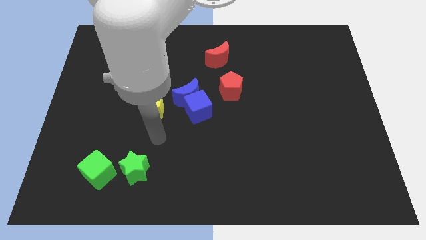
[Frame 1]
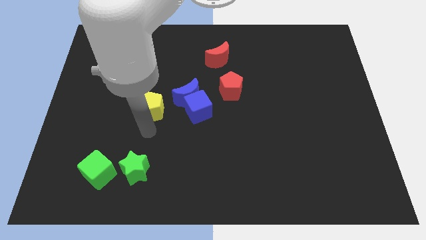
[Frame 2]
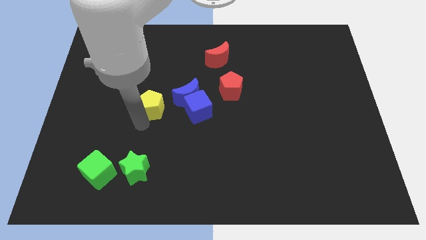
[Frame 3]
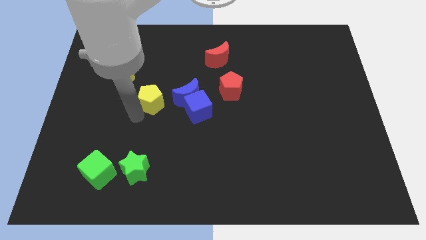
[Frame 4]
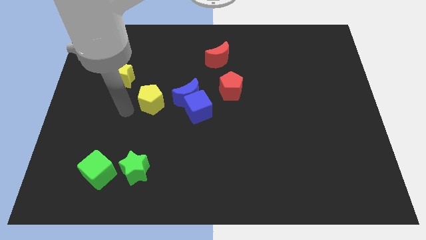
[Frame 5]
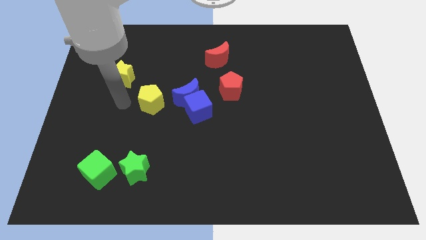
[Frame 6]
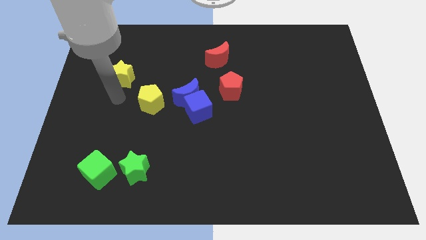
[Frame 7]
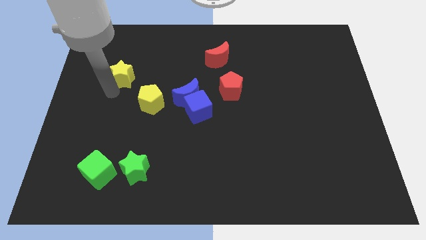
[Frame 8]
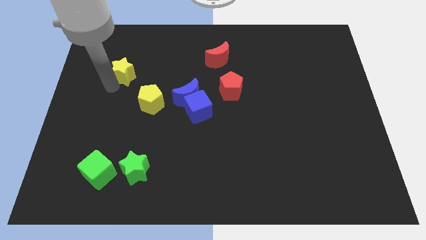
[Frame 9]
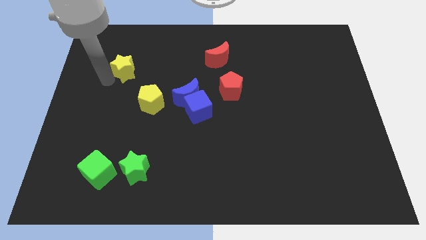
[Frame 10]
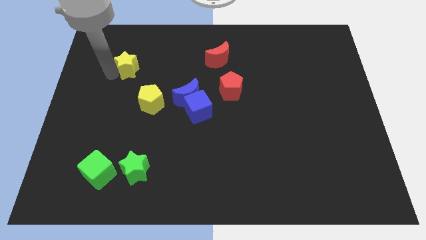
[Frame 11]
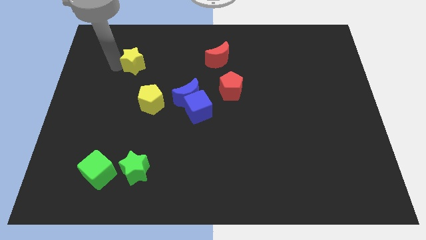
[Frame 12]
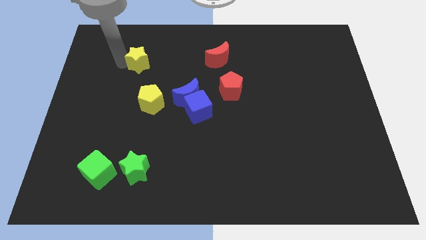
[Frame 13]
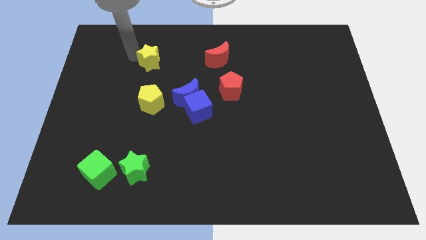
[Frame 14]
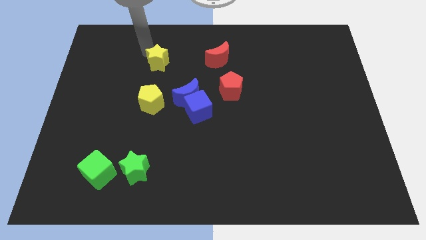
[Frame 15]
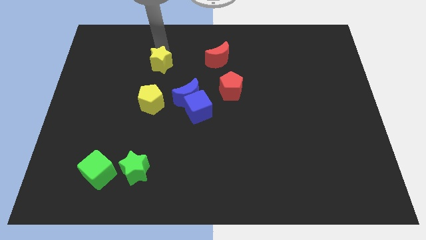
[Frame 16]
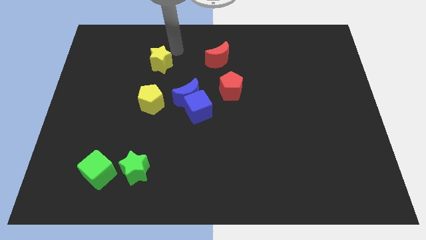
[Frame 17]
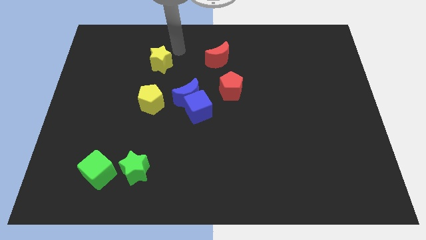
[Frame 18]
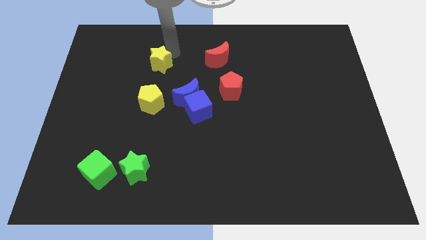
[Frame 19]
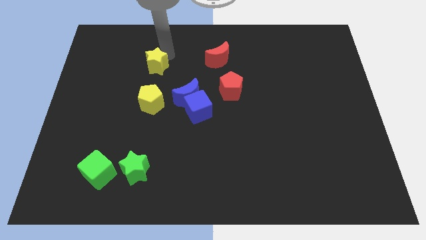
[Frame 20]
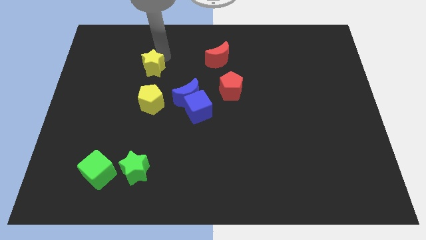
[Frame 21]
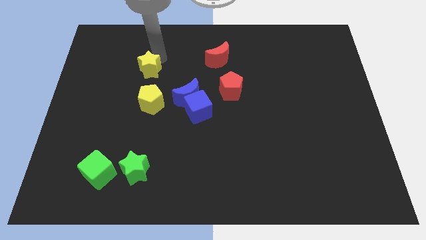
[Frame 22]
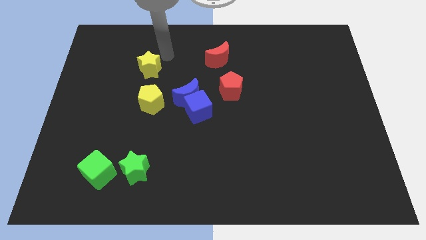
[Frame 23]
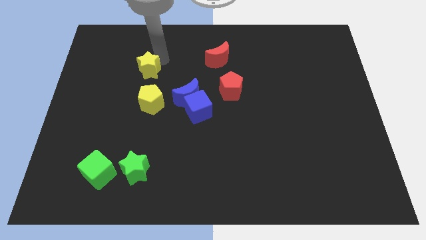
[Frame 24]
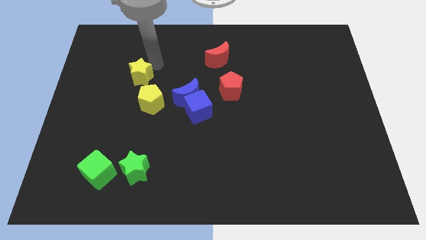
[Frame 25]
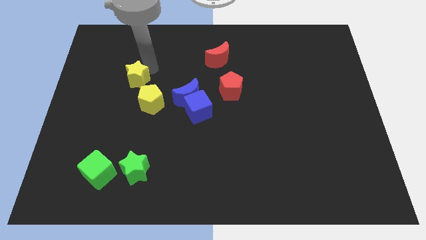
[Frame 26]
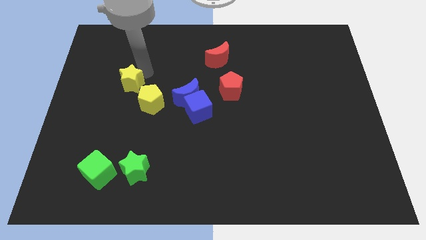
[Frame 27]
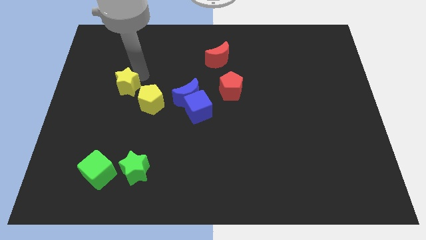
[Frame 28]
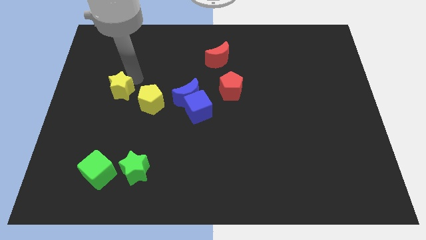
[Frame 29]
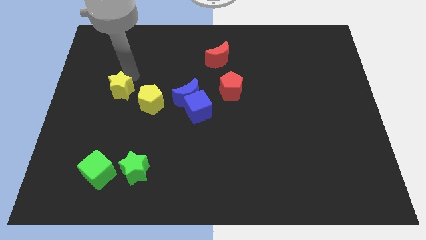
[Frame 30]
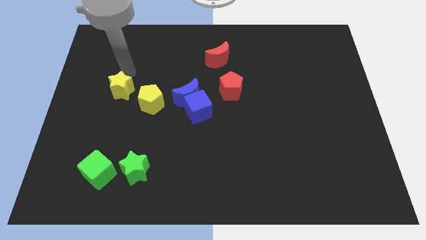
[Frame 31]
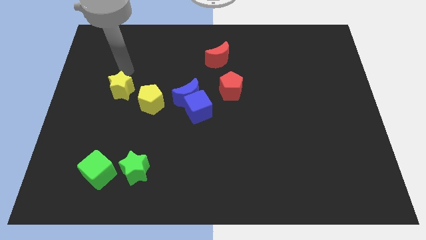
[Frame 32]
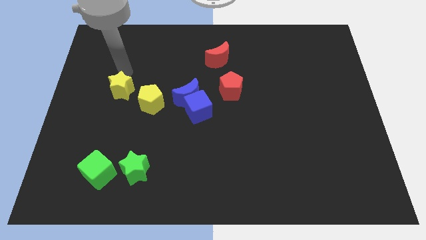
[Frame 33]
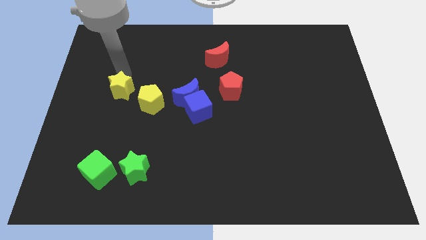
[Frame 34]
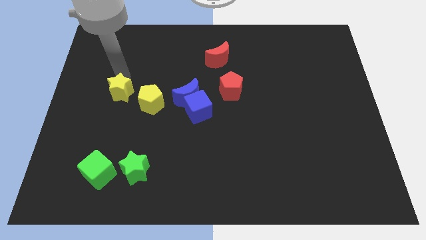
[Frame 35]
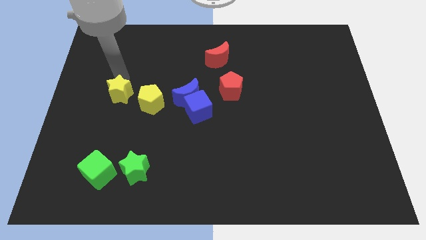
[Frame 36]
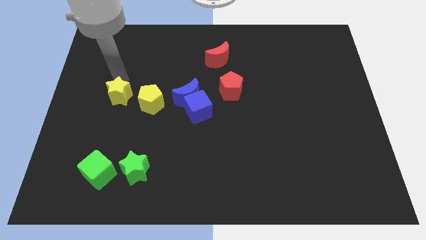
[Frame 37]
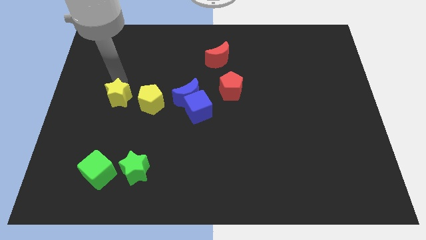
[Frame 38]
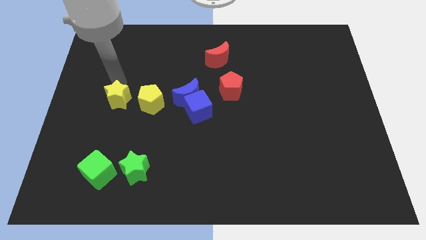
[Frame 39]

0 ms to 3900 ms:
slide the yellow star a bit downwards

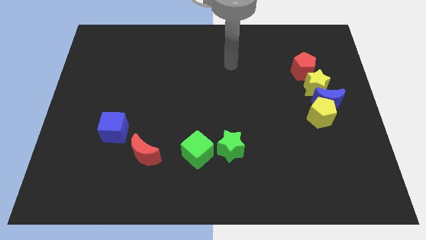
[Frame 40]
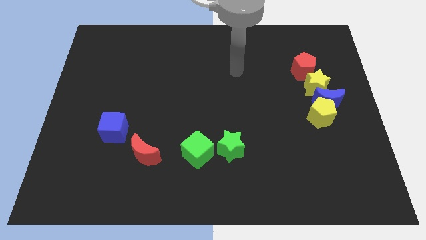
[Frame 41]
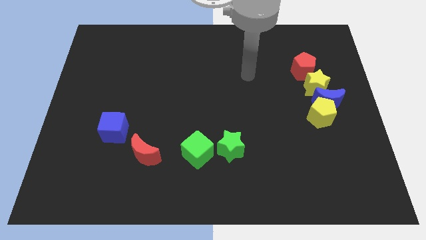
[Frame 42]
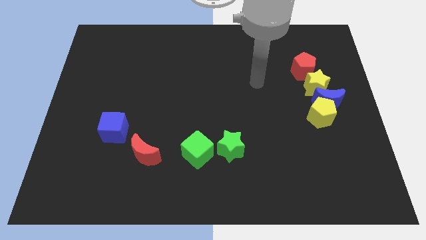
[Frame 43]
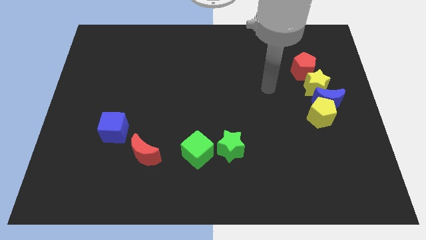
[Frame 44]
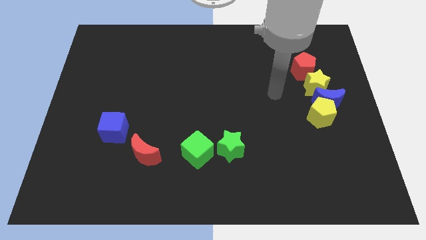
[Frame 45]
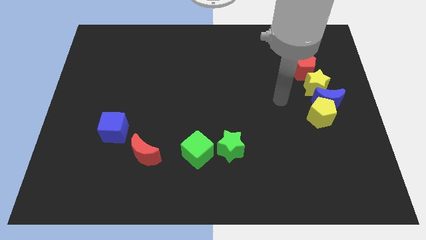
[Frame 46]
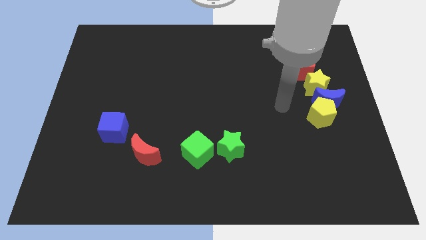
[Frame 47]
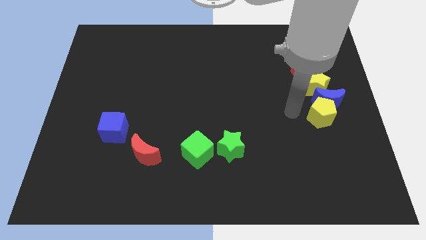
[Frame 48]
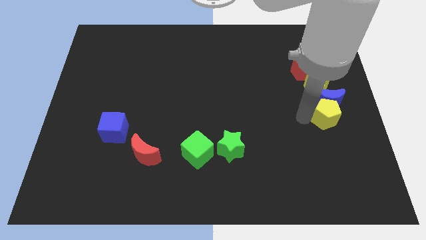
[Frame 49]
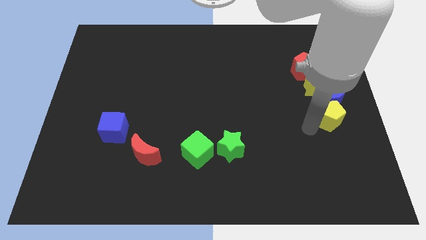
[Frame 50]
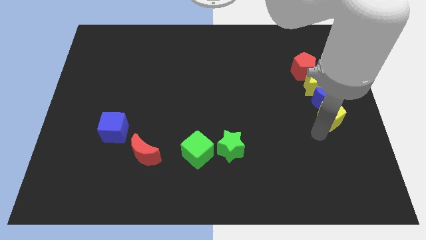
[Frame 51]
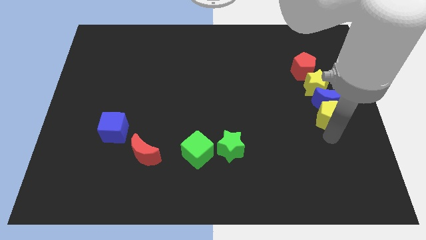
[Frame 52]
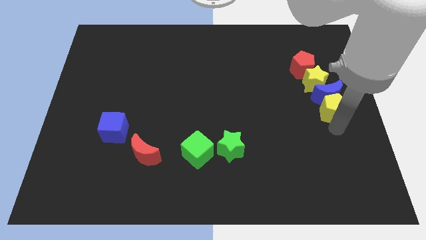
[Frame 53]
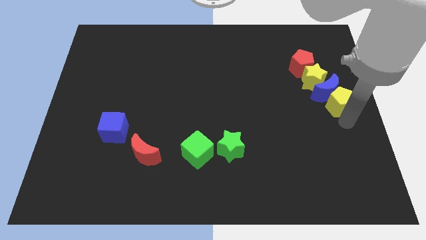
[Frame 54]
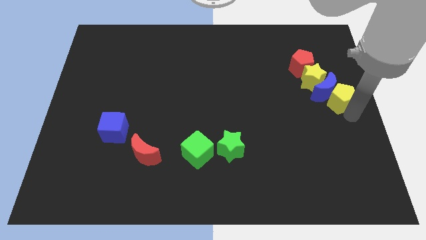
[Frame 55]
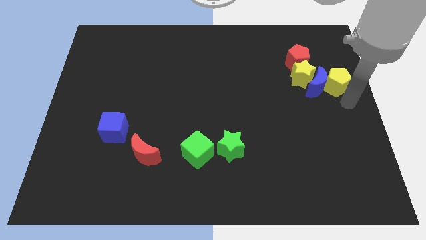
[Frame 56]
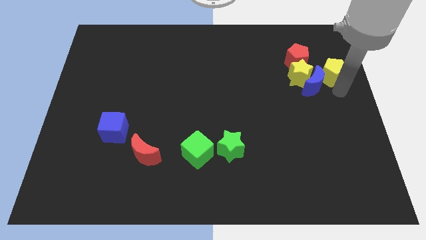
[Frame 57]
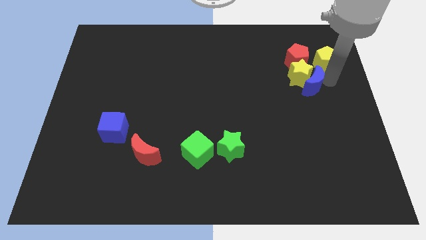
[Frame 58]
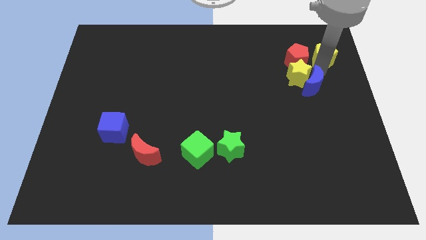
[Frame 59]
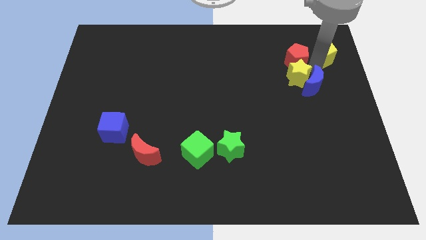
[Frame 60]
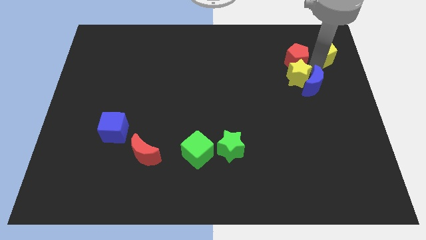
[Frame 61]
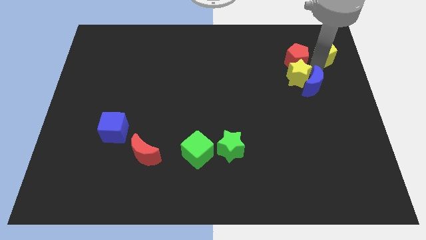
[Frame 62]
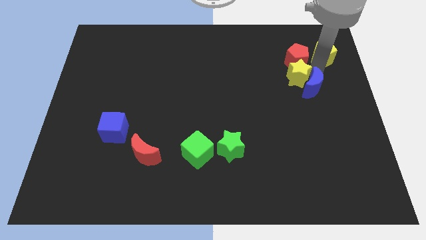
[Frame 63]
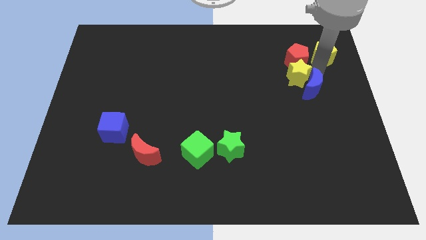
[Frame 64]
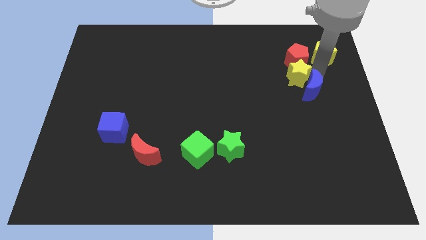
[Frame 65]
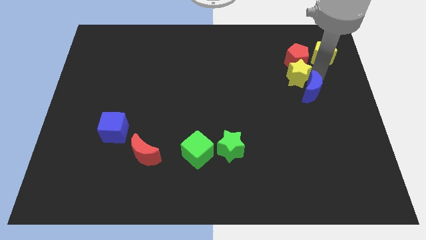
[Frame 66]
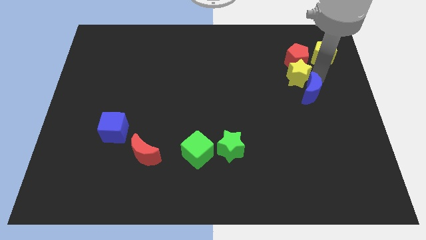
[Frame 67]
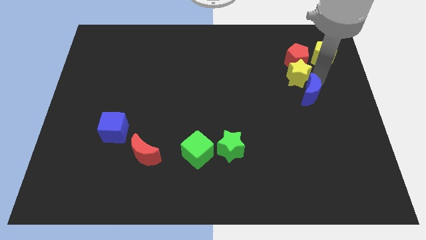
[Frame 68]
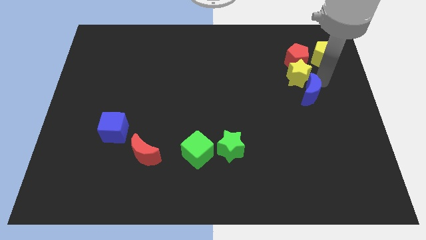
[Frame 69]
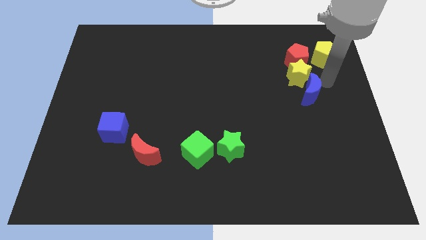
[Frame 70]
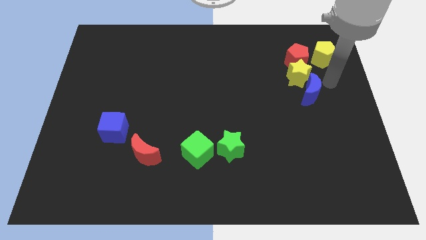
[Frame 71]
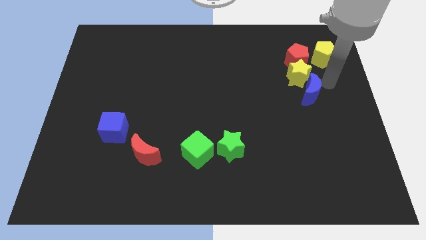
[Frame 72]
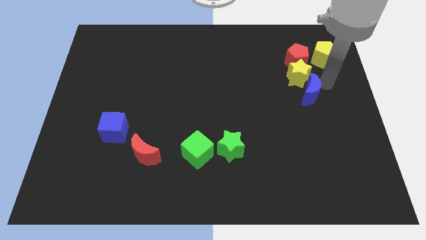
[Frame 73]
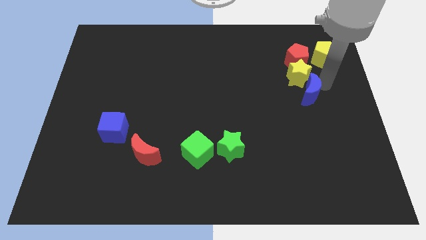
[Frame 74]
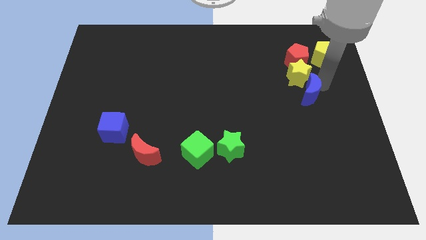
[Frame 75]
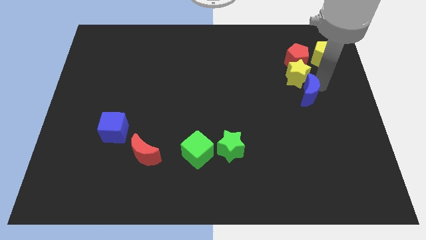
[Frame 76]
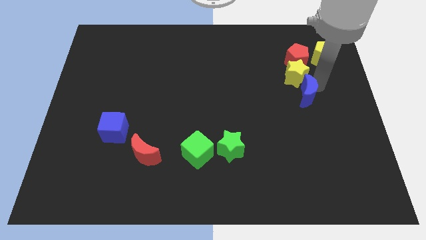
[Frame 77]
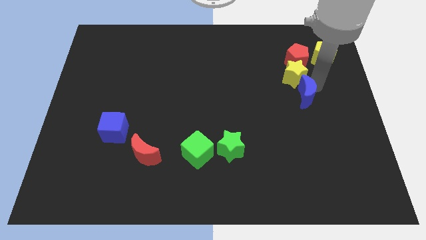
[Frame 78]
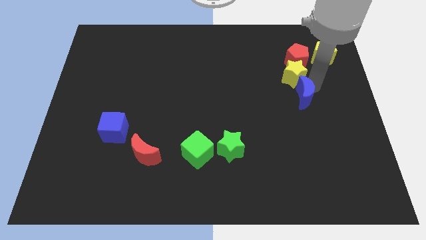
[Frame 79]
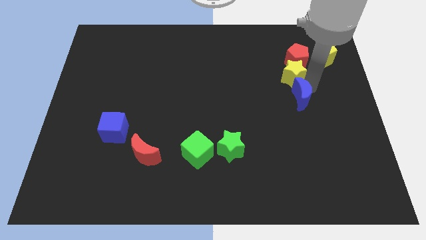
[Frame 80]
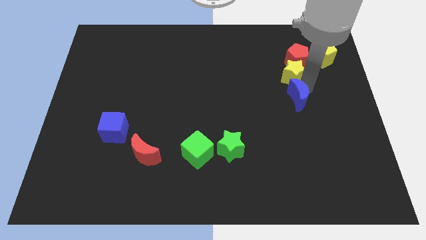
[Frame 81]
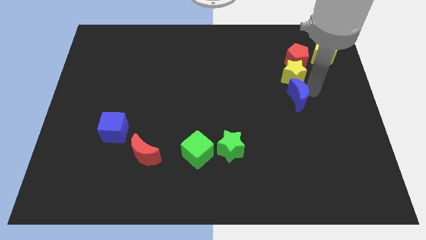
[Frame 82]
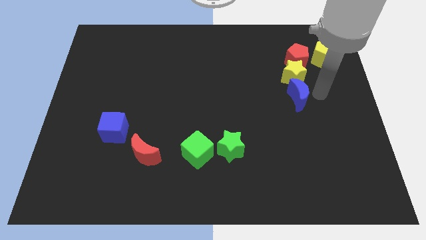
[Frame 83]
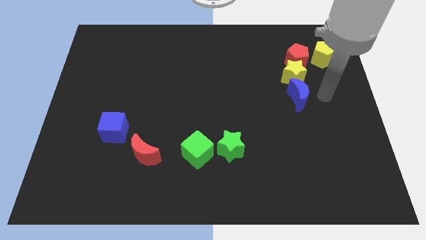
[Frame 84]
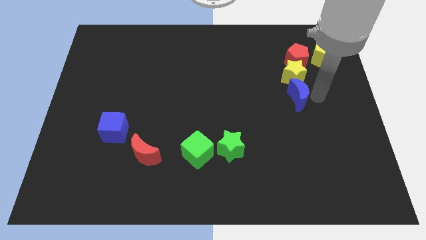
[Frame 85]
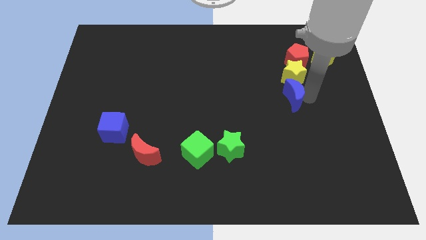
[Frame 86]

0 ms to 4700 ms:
push the blue moon a little left
